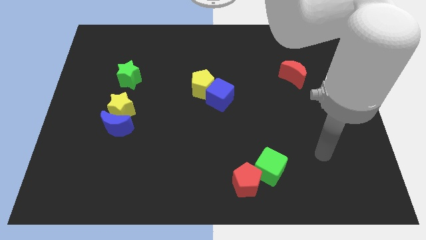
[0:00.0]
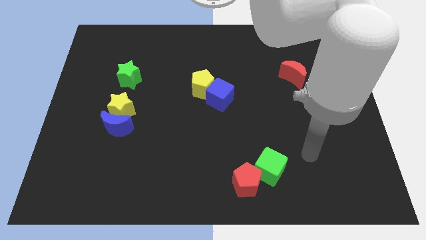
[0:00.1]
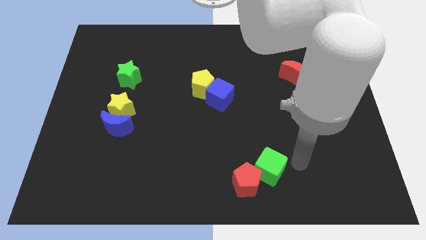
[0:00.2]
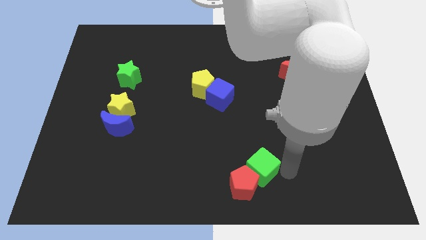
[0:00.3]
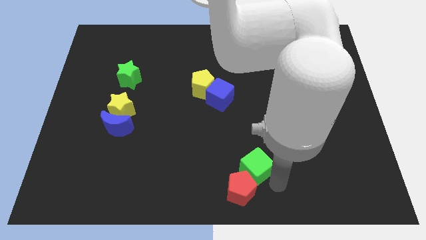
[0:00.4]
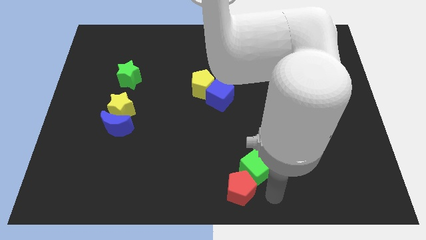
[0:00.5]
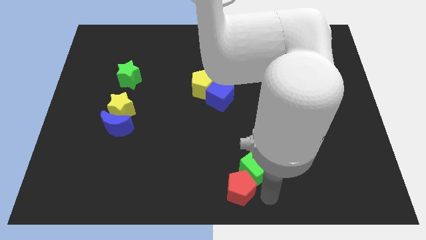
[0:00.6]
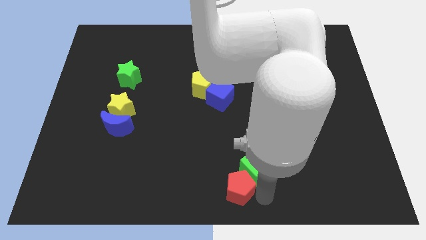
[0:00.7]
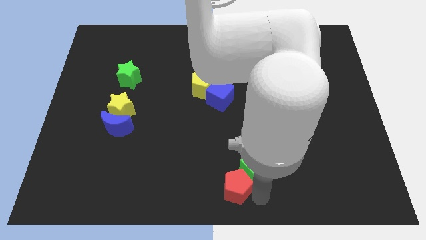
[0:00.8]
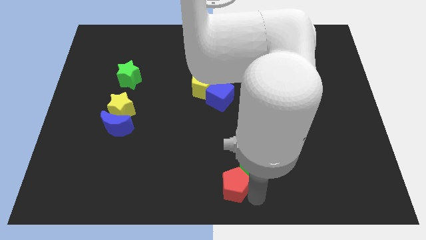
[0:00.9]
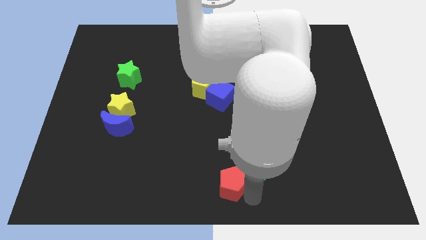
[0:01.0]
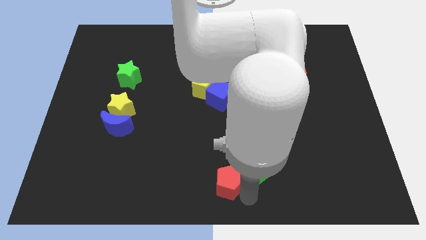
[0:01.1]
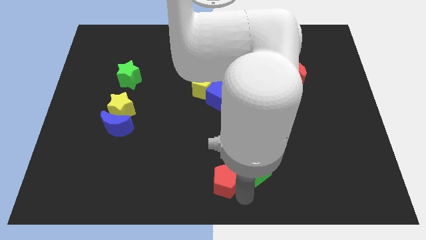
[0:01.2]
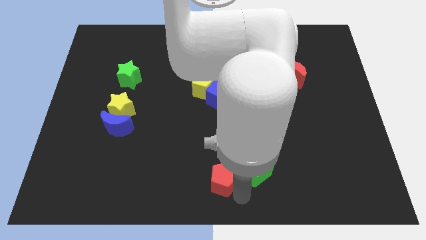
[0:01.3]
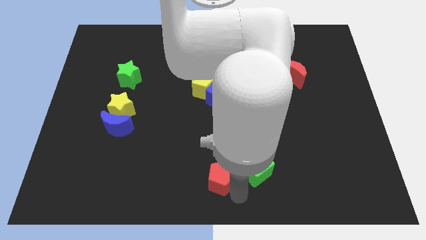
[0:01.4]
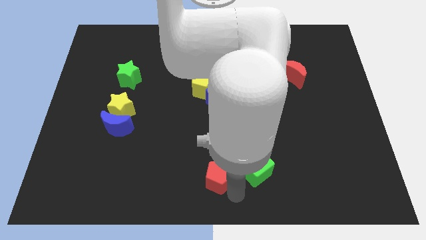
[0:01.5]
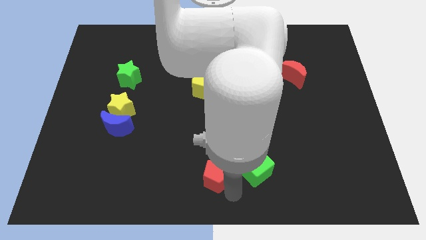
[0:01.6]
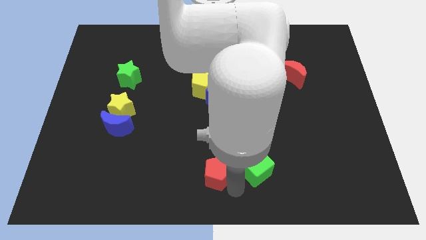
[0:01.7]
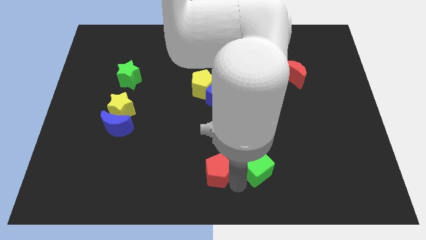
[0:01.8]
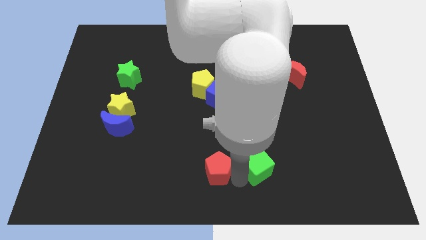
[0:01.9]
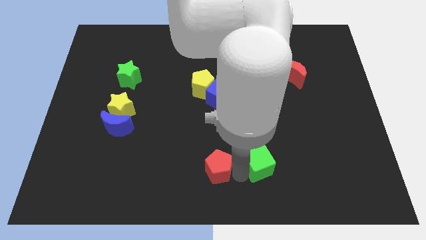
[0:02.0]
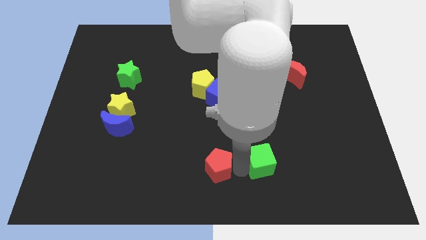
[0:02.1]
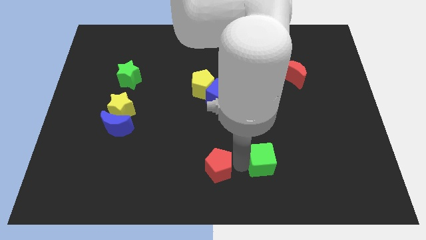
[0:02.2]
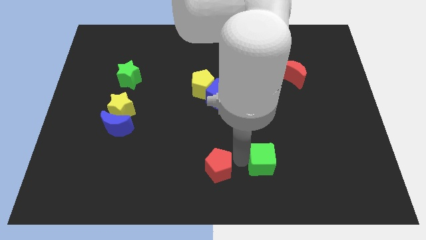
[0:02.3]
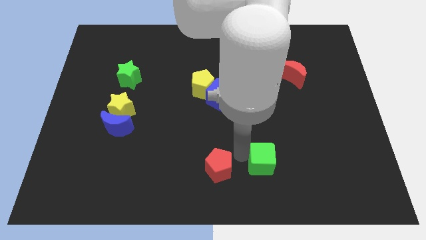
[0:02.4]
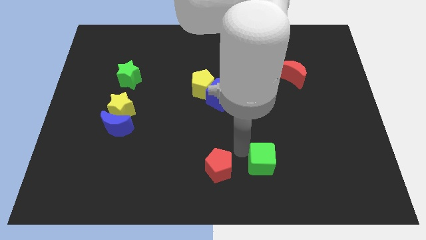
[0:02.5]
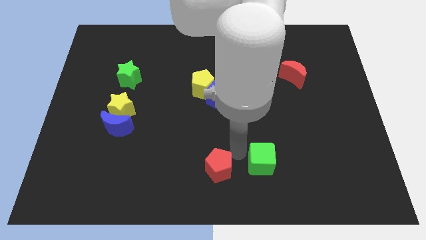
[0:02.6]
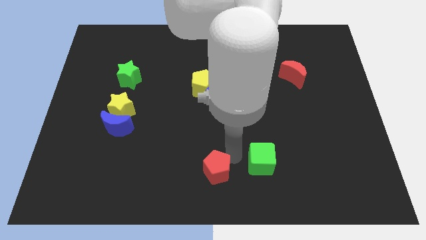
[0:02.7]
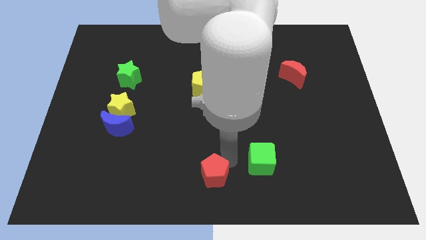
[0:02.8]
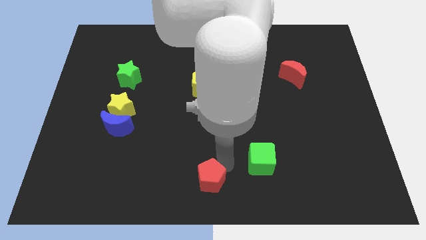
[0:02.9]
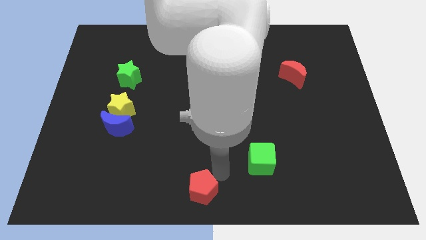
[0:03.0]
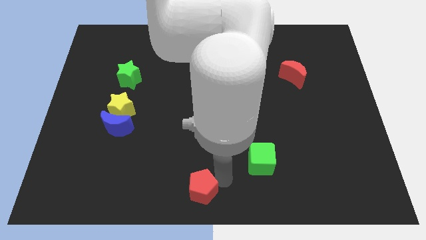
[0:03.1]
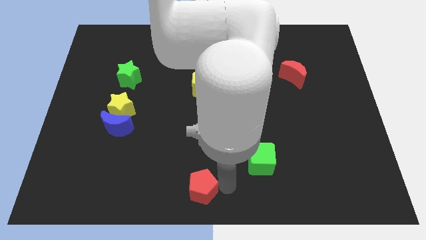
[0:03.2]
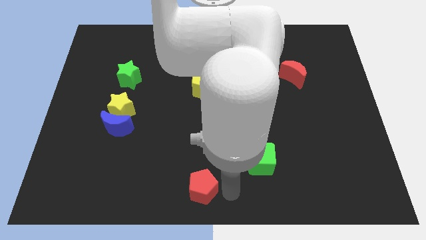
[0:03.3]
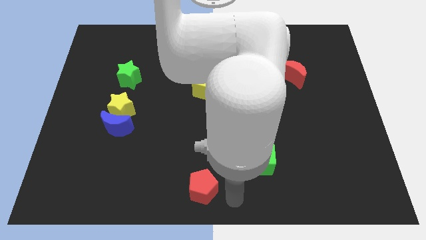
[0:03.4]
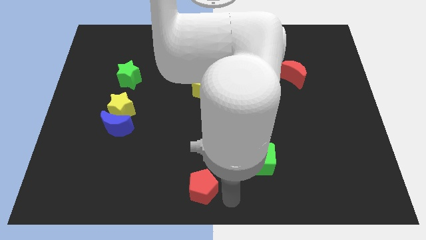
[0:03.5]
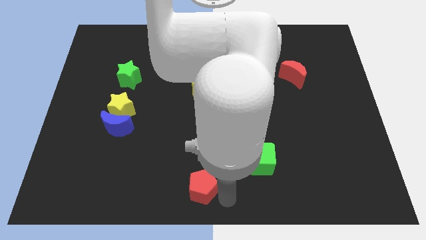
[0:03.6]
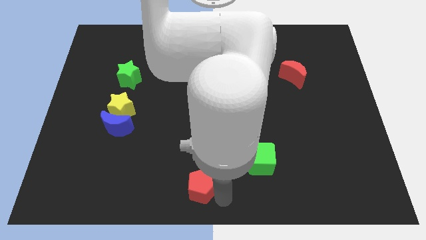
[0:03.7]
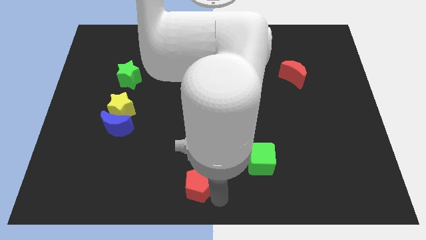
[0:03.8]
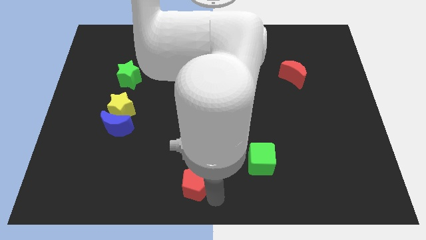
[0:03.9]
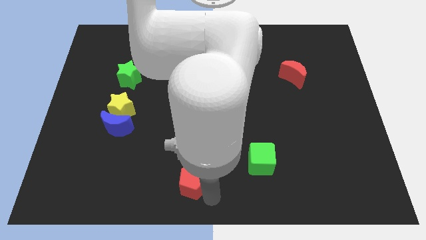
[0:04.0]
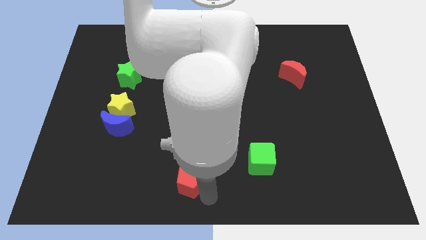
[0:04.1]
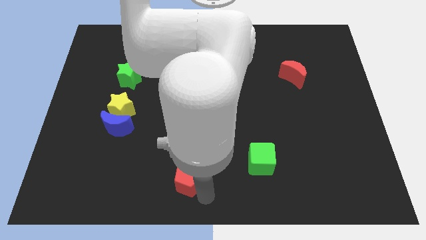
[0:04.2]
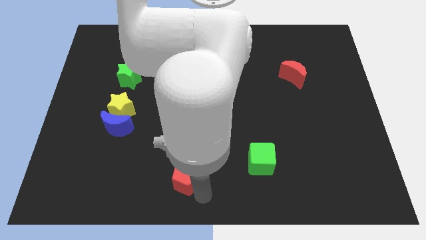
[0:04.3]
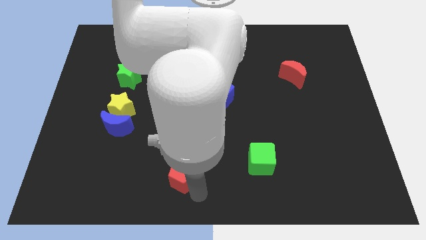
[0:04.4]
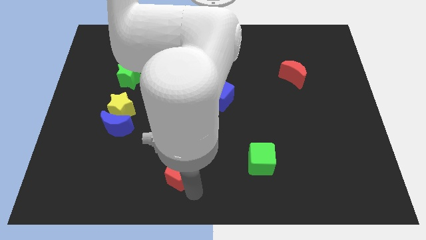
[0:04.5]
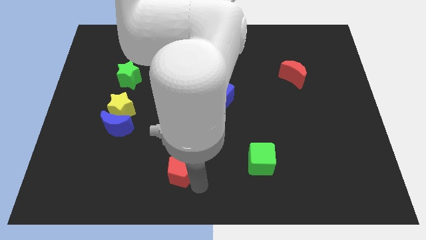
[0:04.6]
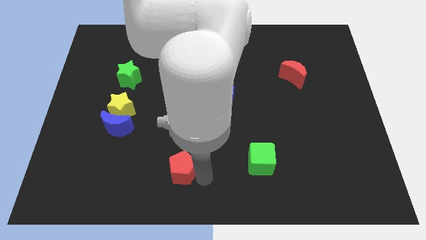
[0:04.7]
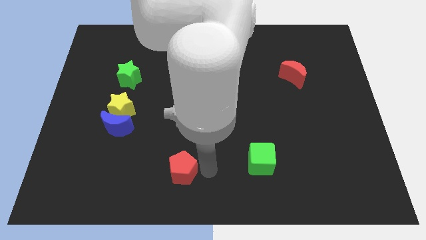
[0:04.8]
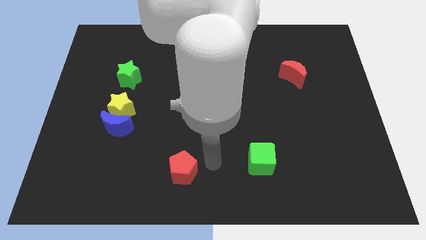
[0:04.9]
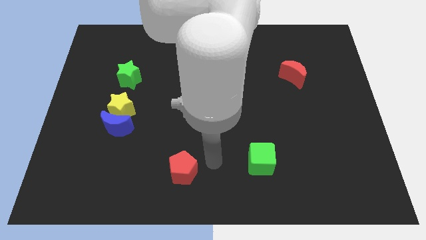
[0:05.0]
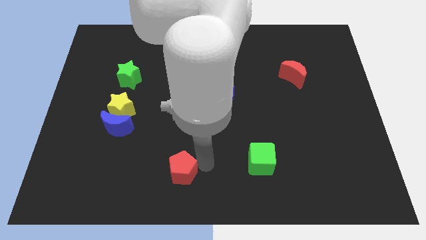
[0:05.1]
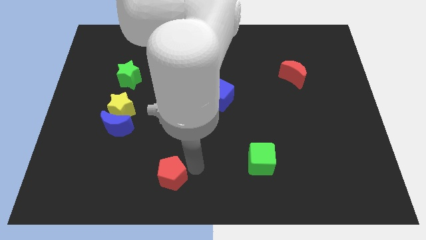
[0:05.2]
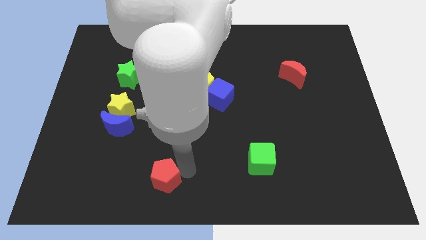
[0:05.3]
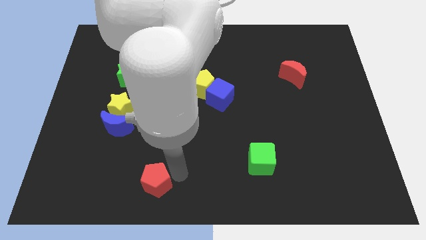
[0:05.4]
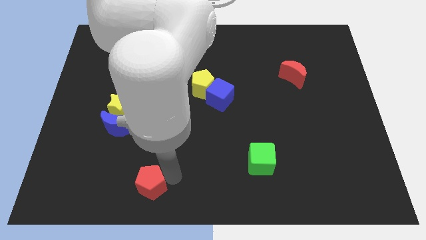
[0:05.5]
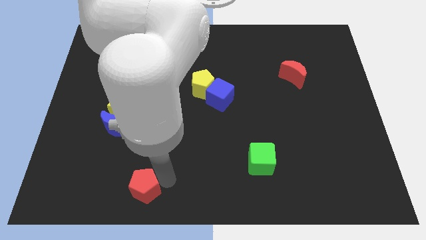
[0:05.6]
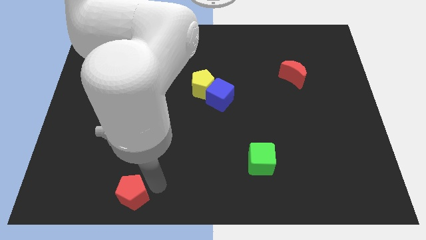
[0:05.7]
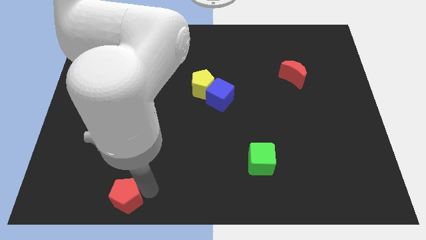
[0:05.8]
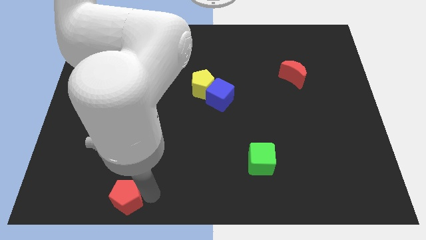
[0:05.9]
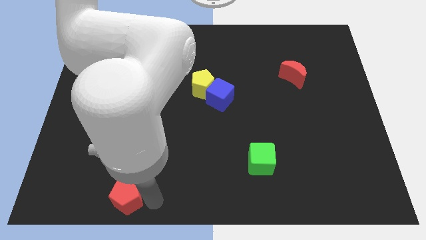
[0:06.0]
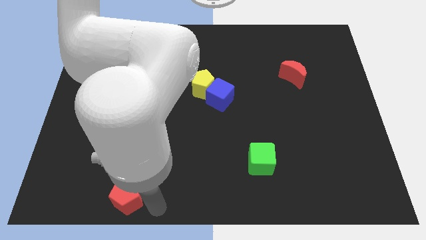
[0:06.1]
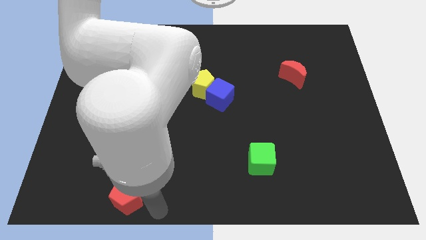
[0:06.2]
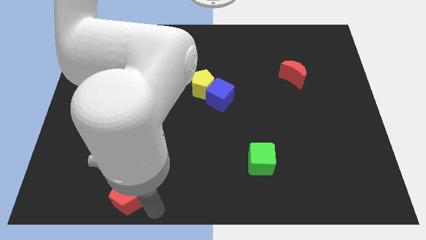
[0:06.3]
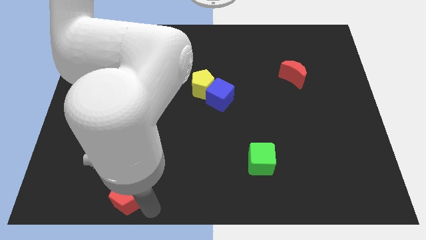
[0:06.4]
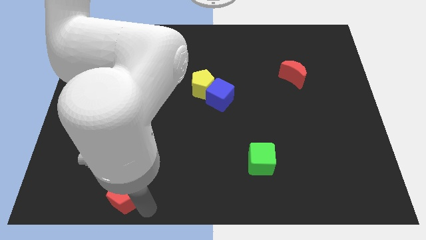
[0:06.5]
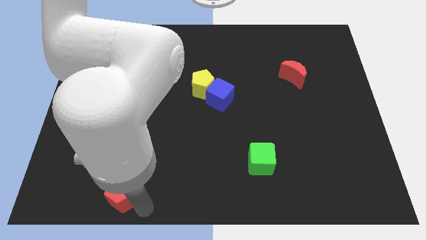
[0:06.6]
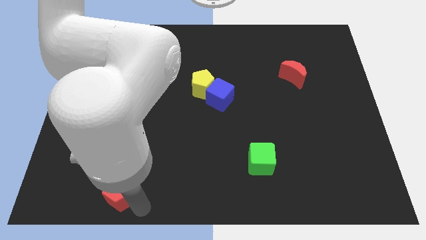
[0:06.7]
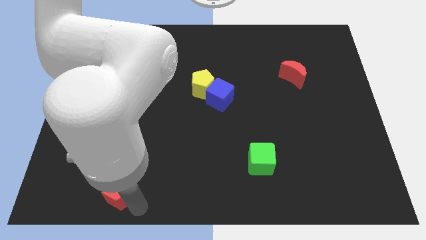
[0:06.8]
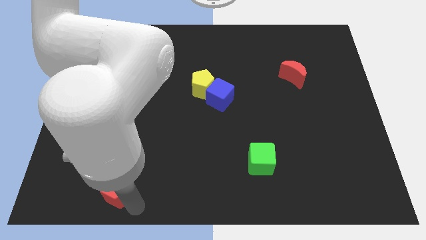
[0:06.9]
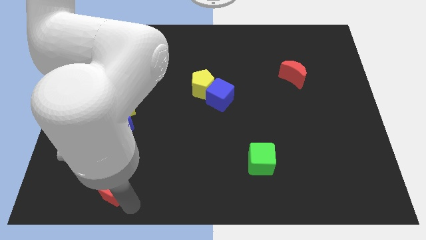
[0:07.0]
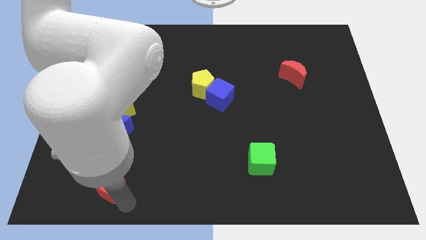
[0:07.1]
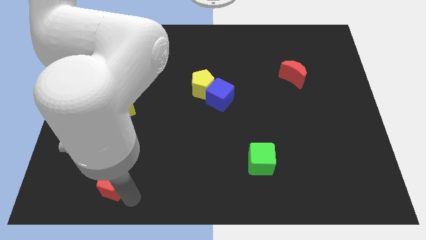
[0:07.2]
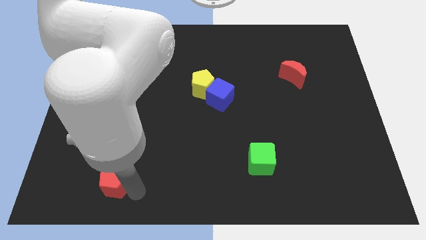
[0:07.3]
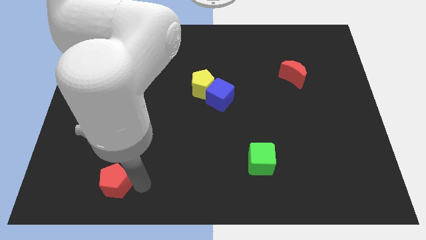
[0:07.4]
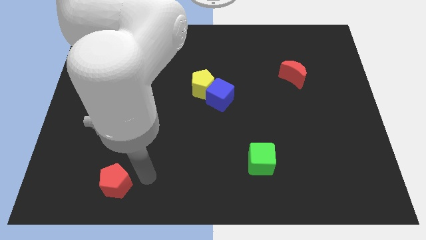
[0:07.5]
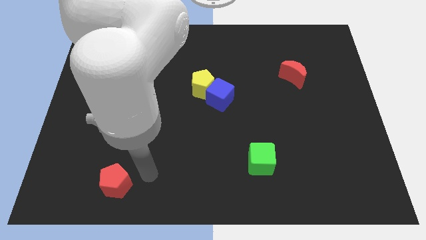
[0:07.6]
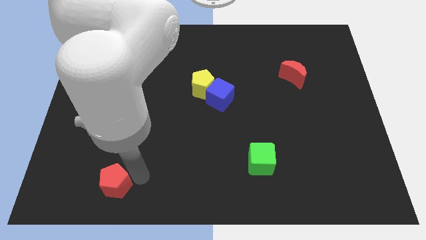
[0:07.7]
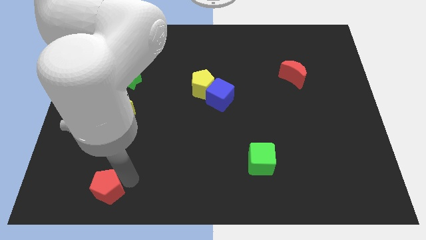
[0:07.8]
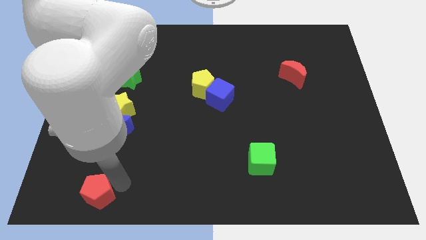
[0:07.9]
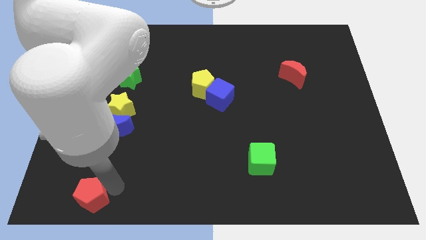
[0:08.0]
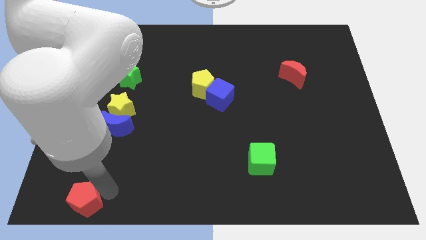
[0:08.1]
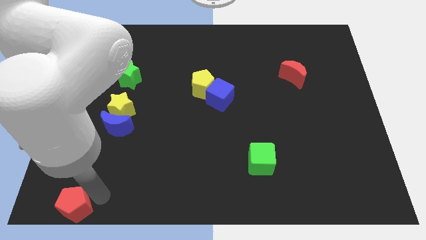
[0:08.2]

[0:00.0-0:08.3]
slide the red pentagon to the lower left corner
